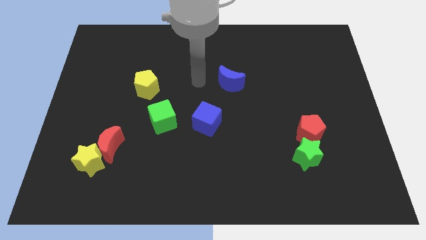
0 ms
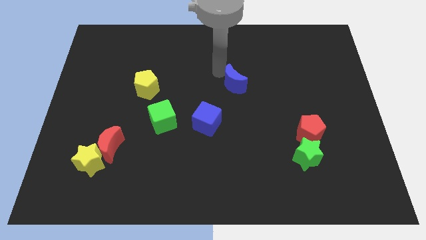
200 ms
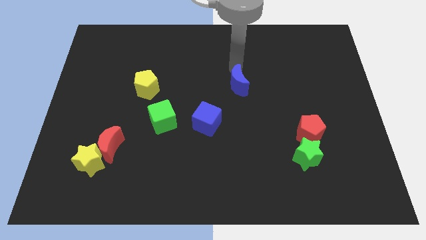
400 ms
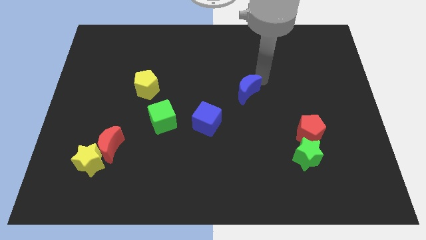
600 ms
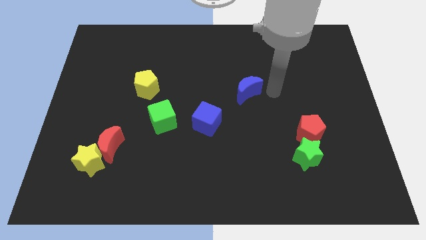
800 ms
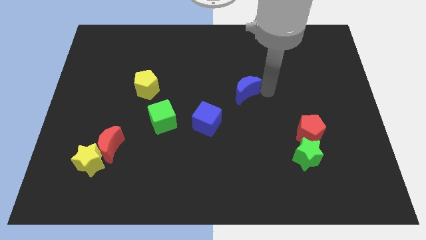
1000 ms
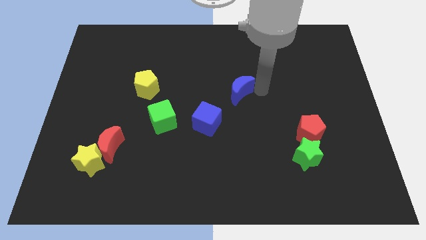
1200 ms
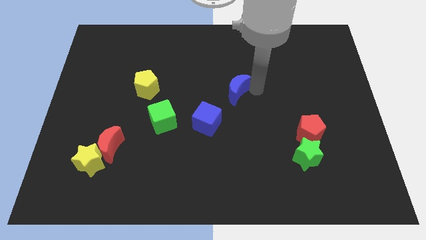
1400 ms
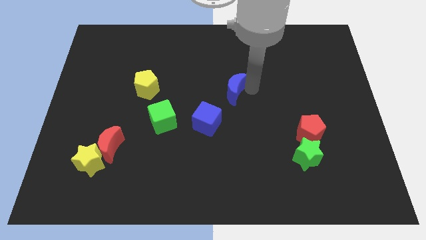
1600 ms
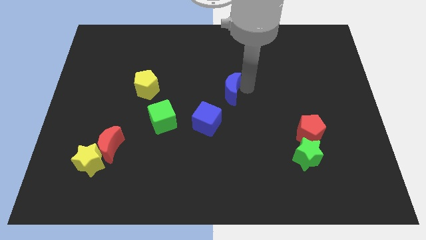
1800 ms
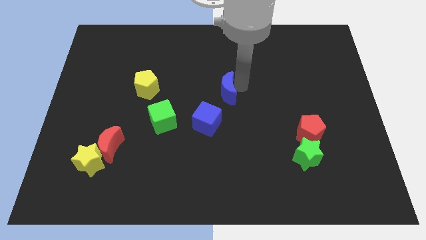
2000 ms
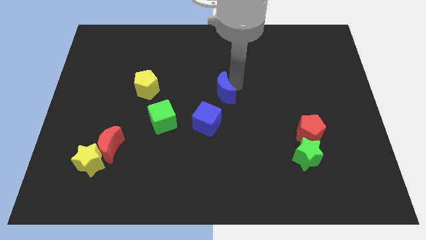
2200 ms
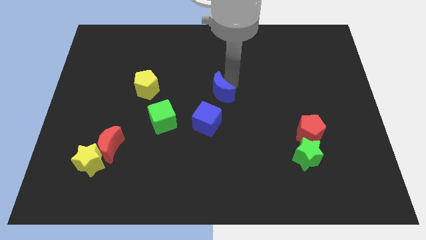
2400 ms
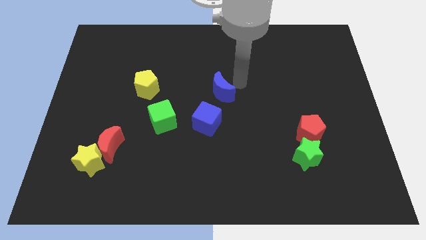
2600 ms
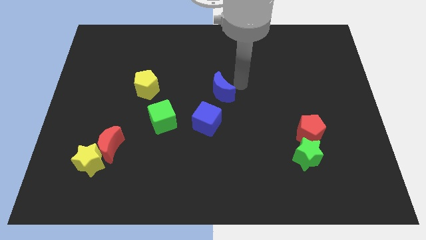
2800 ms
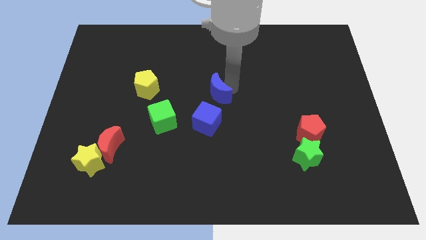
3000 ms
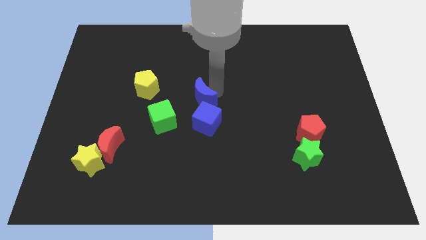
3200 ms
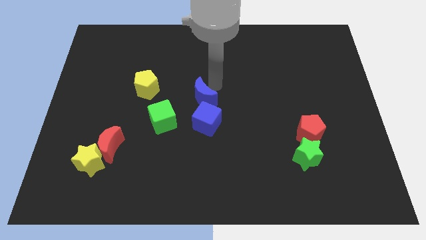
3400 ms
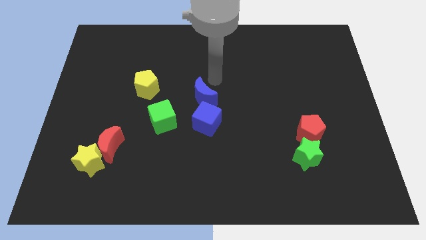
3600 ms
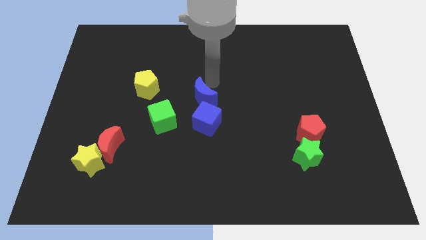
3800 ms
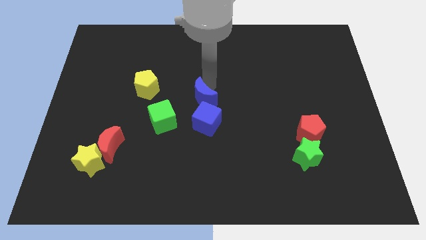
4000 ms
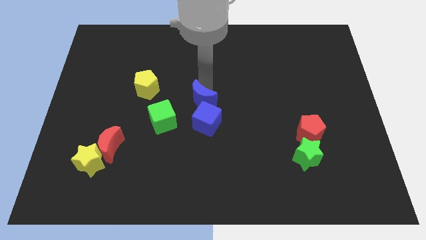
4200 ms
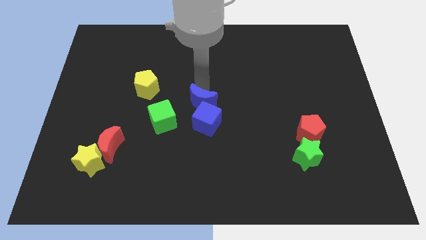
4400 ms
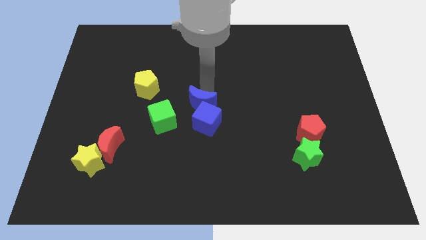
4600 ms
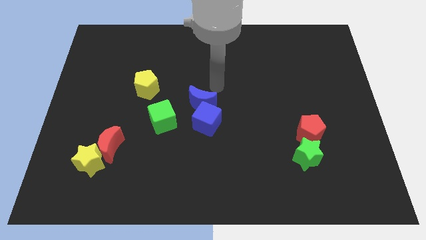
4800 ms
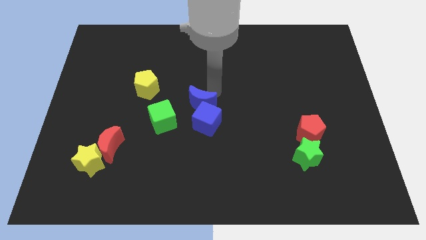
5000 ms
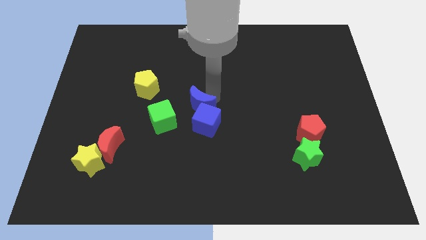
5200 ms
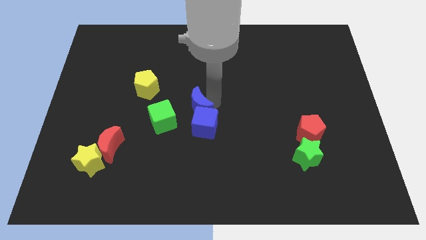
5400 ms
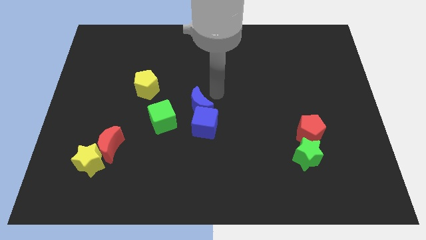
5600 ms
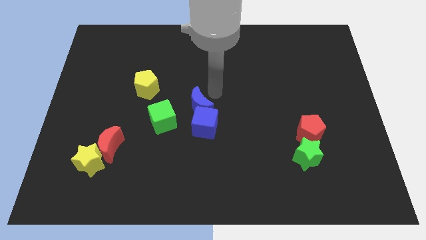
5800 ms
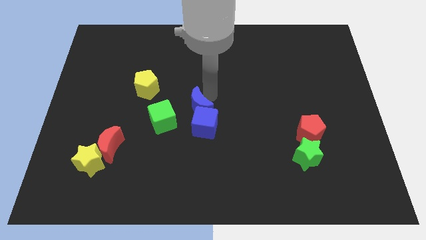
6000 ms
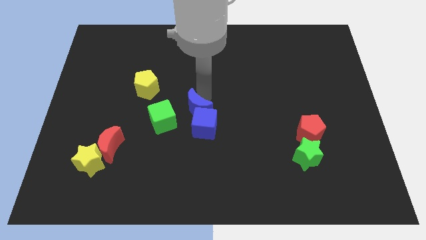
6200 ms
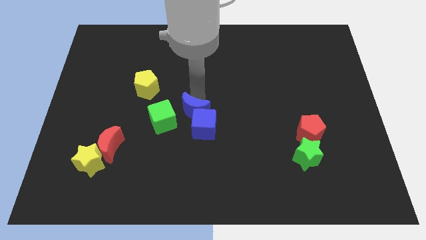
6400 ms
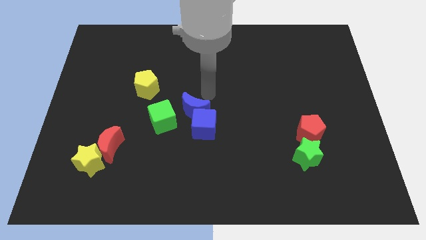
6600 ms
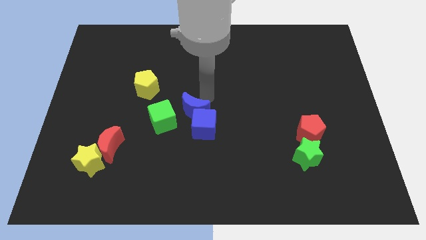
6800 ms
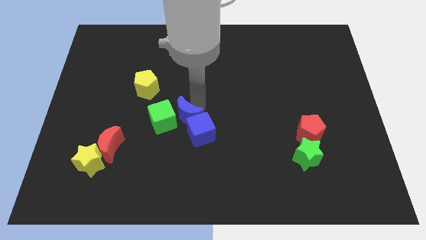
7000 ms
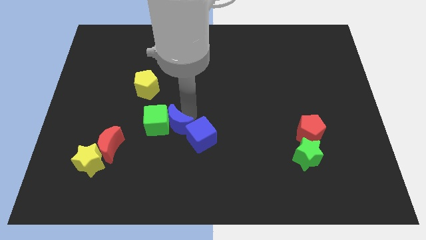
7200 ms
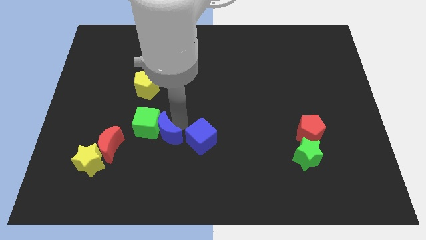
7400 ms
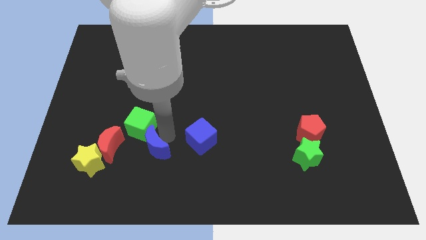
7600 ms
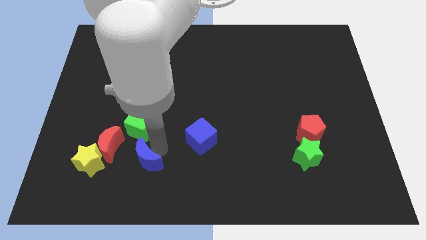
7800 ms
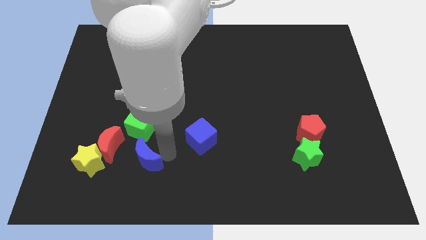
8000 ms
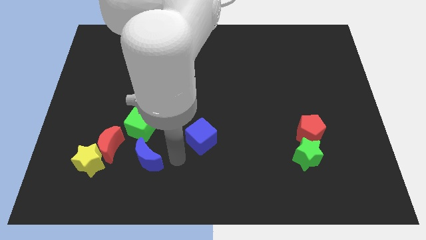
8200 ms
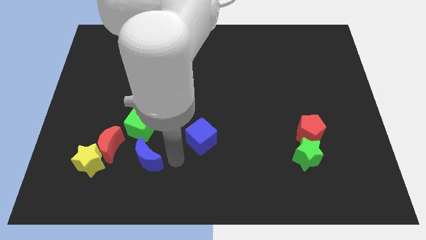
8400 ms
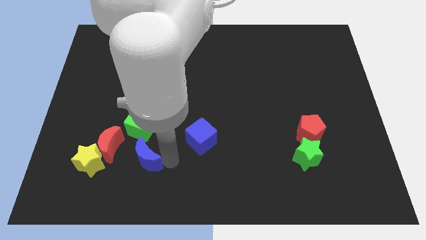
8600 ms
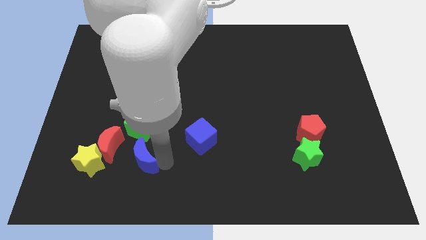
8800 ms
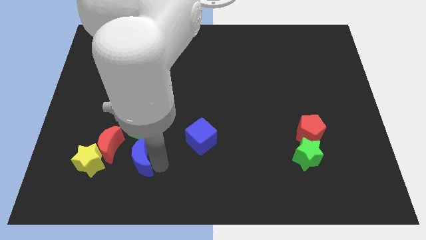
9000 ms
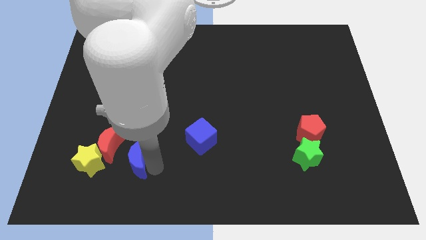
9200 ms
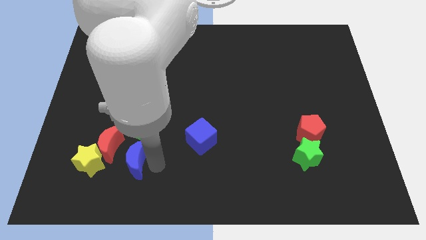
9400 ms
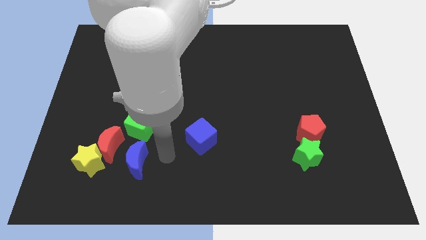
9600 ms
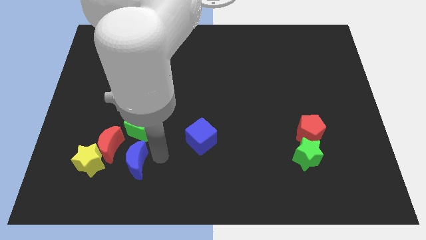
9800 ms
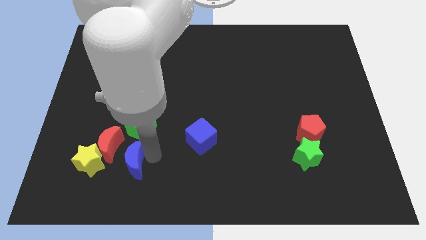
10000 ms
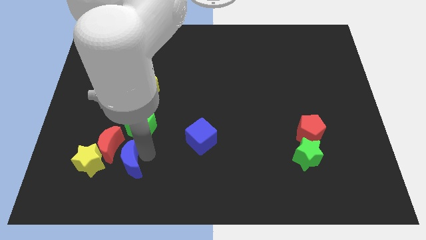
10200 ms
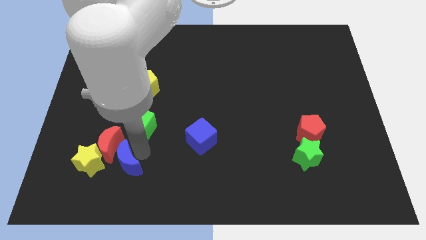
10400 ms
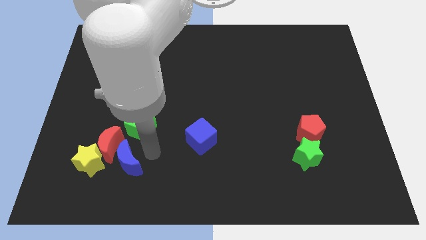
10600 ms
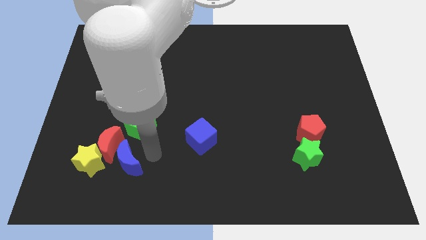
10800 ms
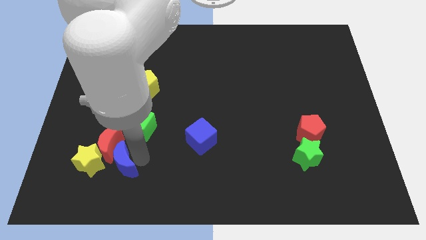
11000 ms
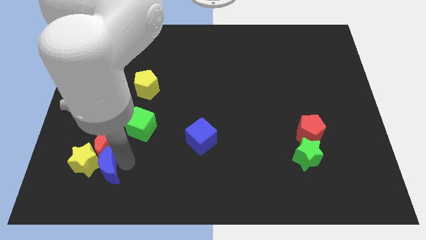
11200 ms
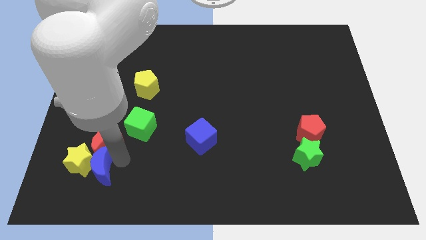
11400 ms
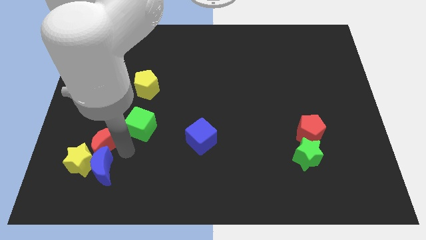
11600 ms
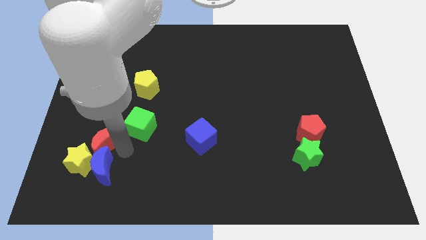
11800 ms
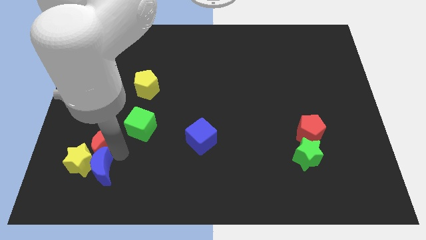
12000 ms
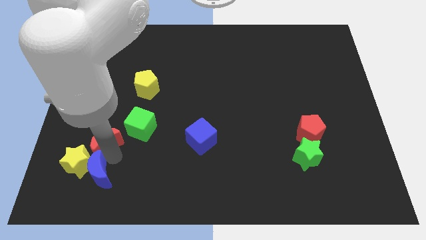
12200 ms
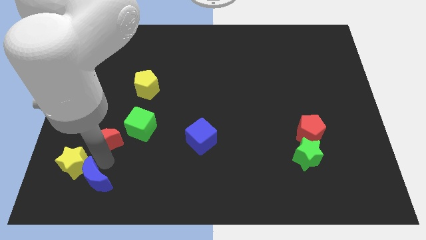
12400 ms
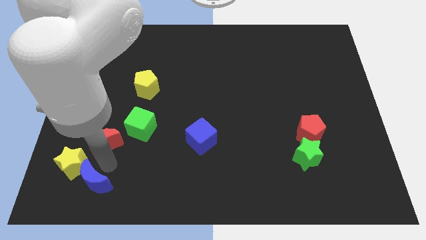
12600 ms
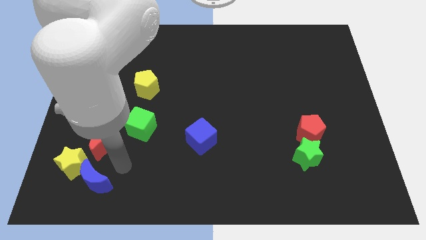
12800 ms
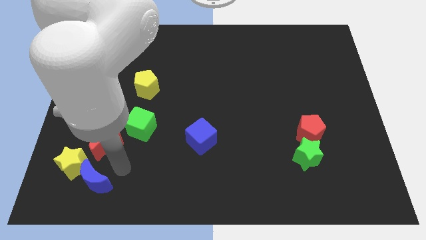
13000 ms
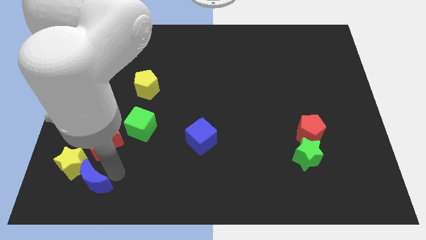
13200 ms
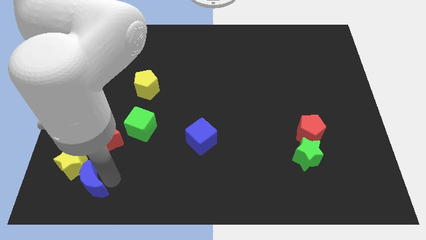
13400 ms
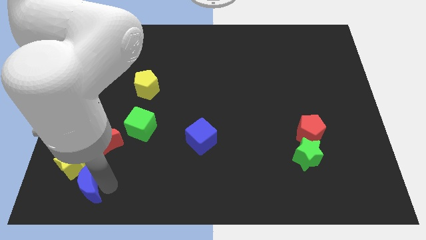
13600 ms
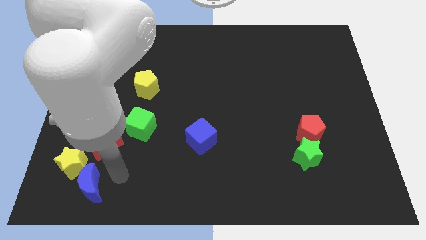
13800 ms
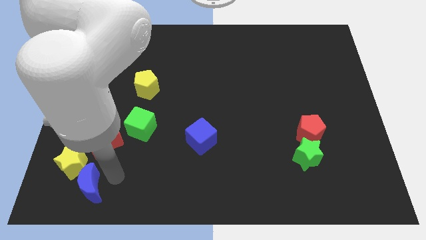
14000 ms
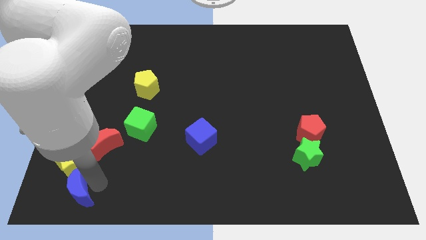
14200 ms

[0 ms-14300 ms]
move the blue moon to the bottom left corner

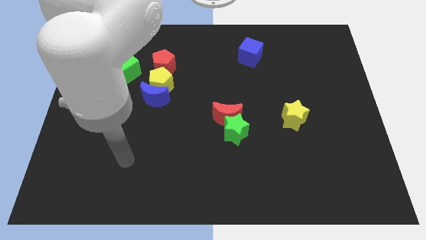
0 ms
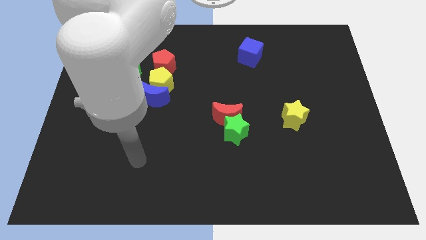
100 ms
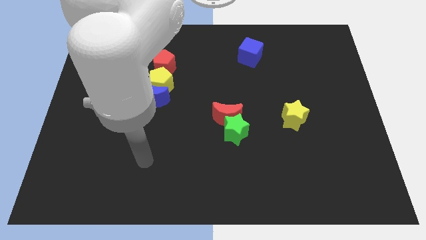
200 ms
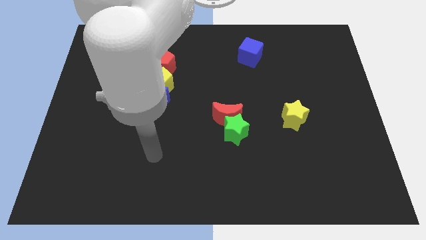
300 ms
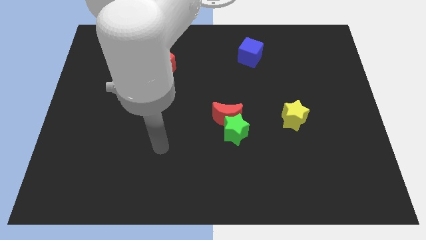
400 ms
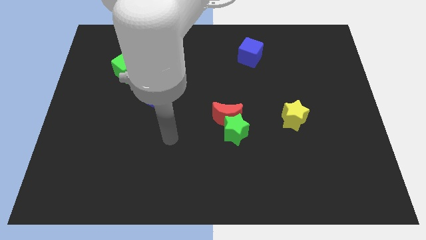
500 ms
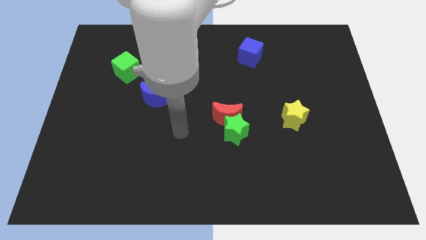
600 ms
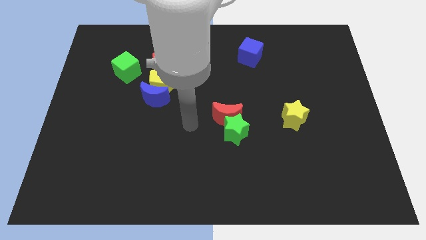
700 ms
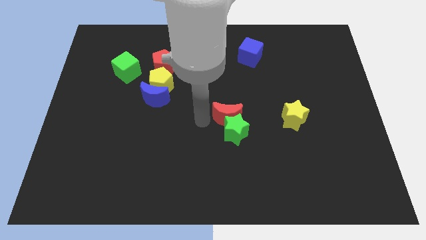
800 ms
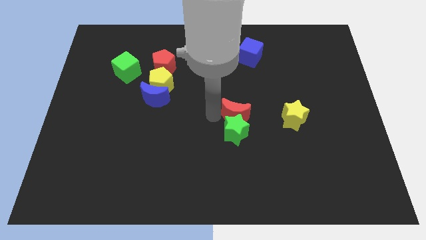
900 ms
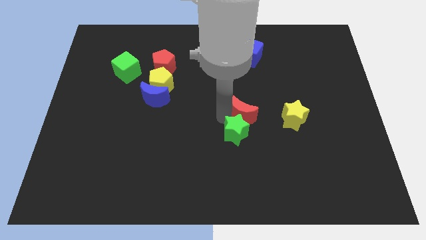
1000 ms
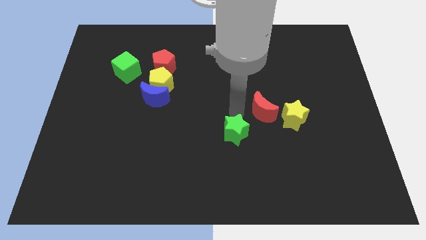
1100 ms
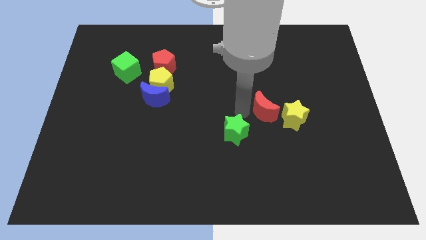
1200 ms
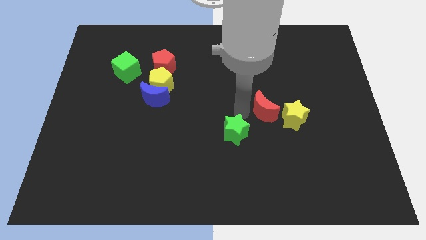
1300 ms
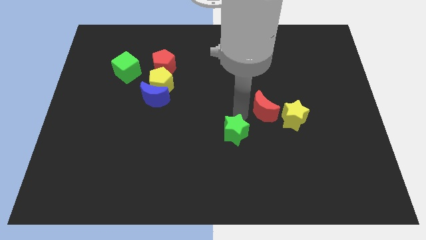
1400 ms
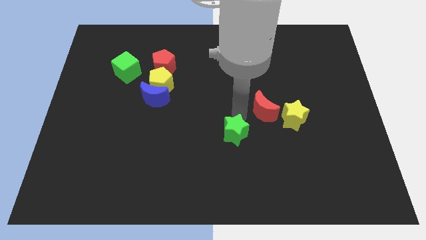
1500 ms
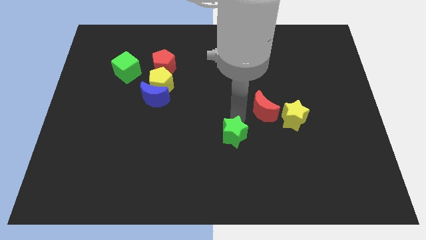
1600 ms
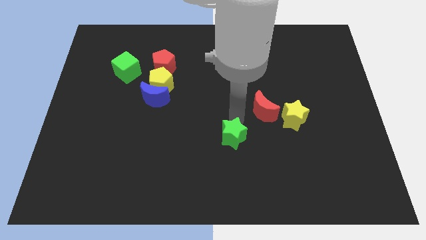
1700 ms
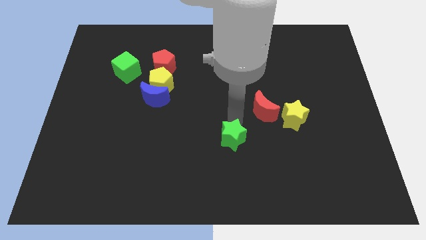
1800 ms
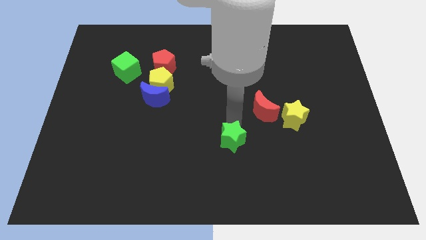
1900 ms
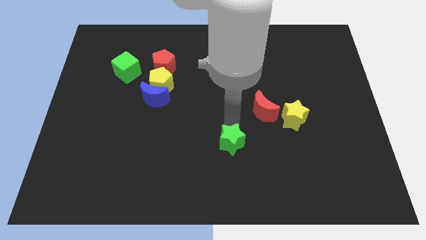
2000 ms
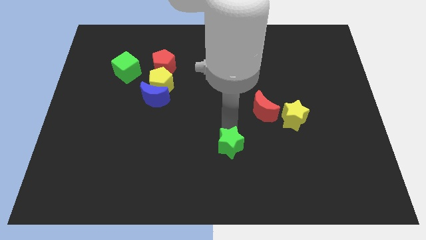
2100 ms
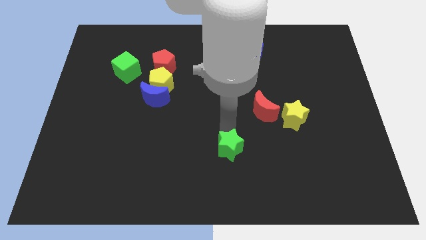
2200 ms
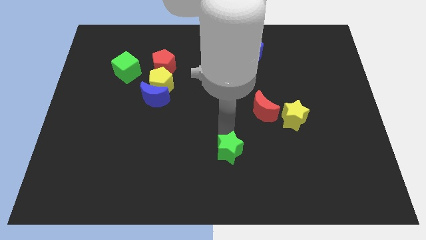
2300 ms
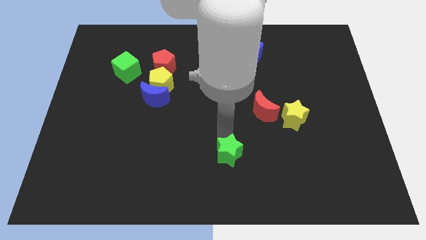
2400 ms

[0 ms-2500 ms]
put the green star to the bottom
